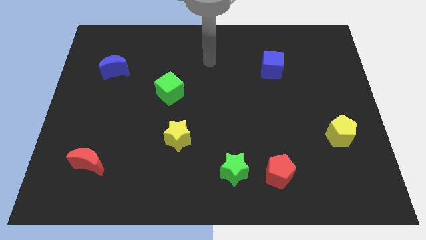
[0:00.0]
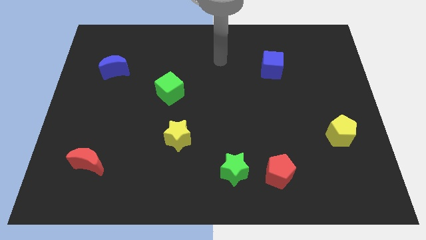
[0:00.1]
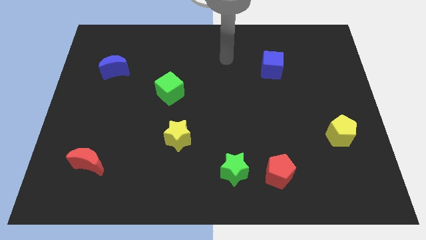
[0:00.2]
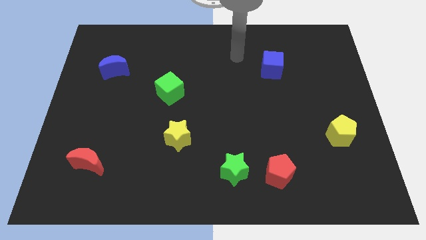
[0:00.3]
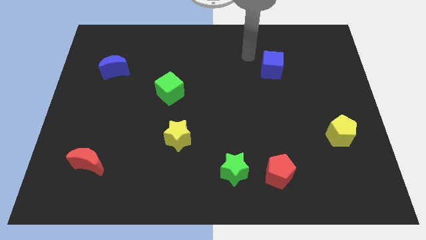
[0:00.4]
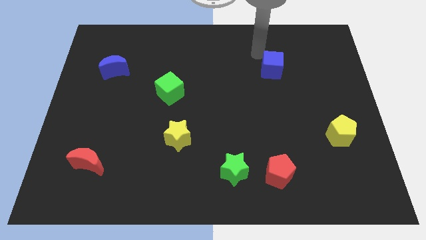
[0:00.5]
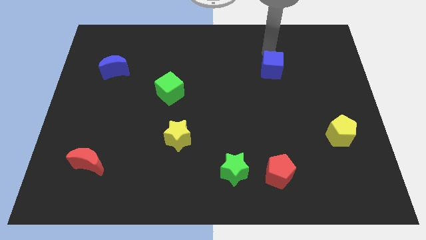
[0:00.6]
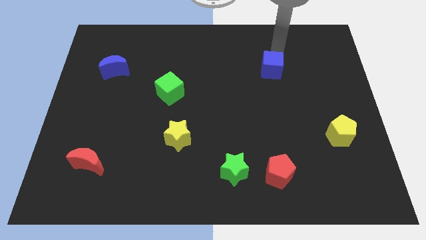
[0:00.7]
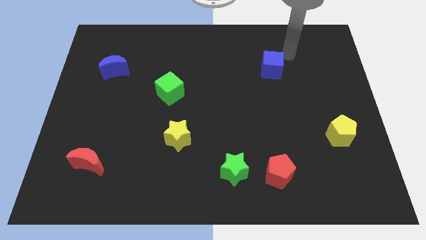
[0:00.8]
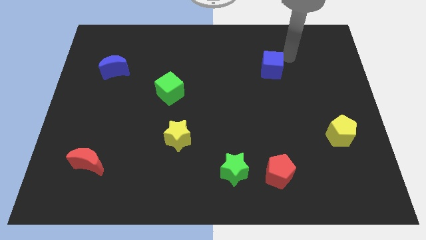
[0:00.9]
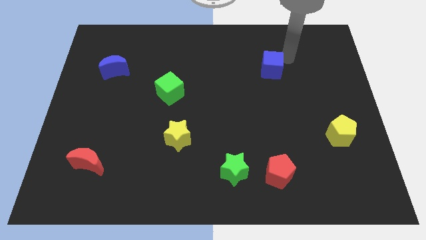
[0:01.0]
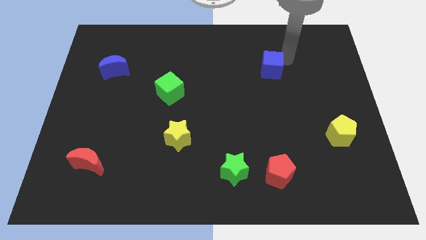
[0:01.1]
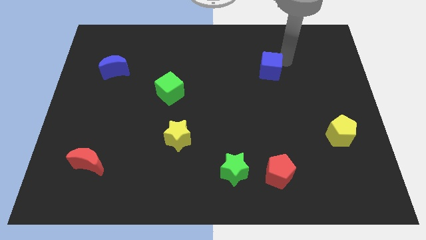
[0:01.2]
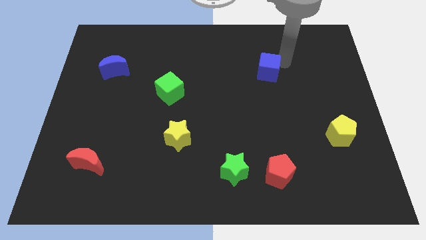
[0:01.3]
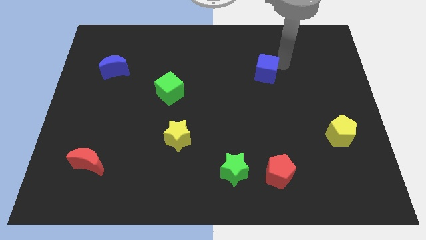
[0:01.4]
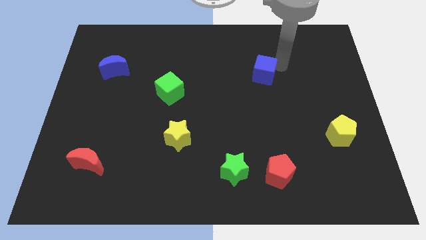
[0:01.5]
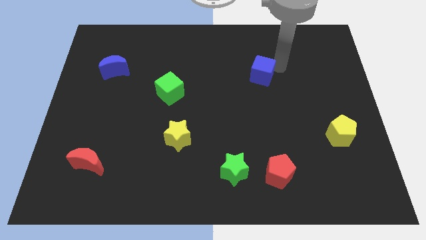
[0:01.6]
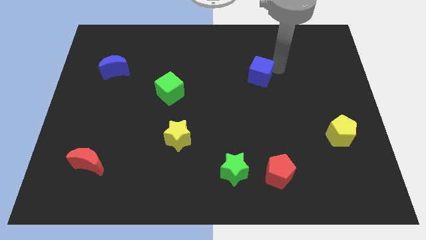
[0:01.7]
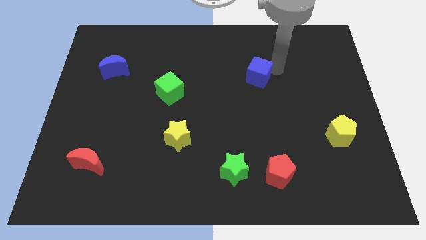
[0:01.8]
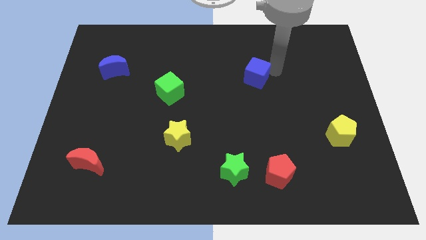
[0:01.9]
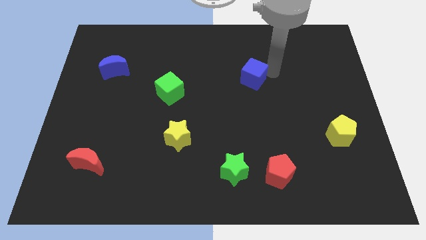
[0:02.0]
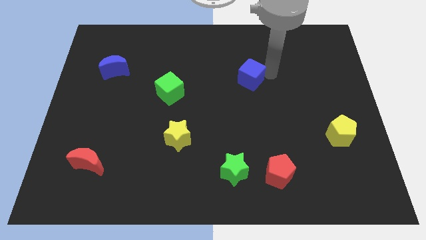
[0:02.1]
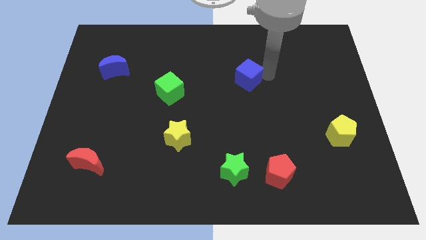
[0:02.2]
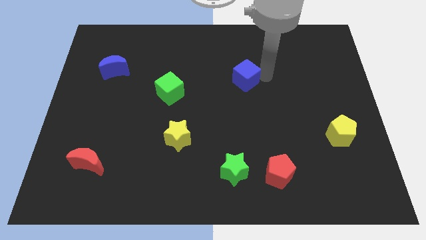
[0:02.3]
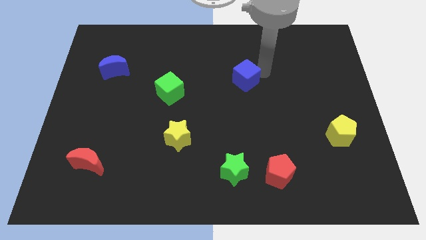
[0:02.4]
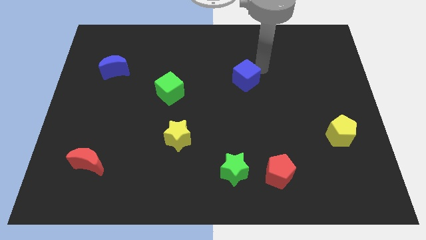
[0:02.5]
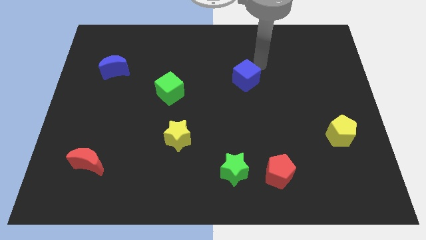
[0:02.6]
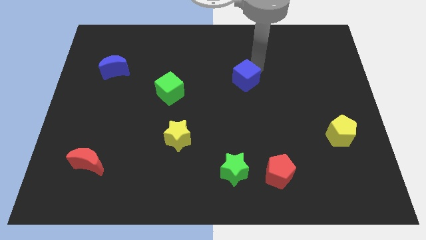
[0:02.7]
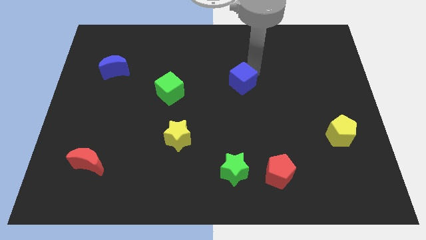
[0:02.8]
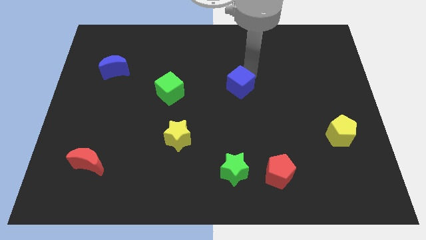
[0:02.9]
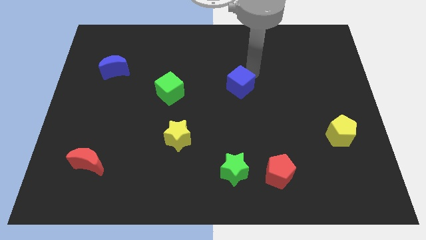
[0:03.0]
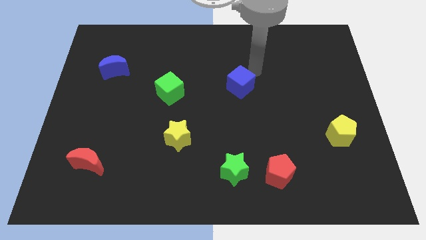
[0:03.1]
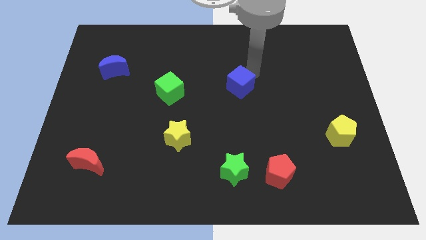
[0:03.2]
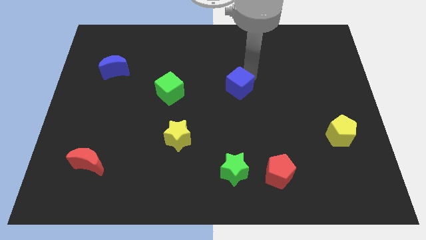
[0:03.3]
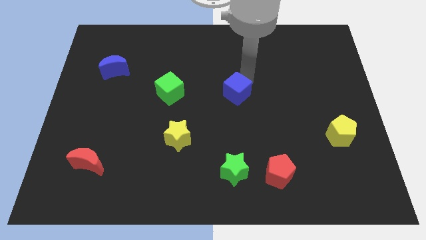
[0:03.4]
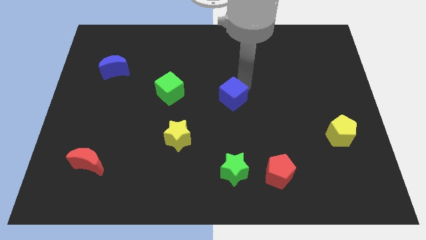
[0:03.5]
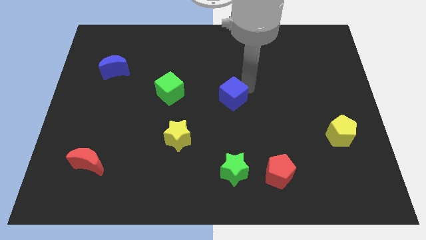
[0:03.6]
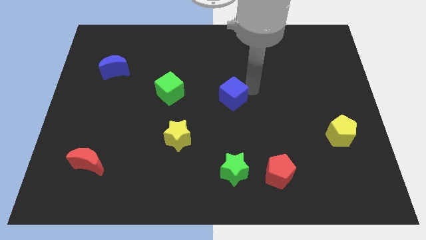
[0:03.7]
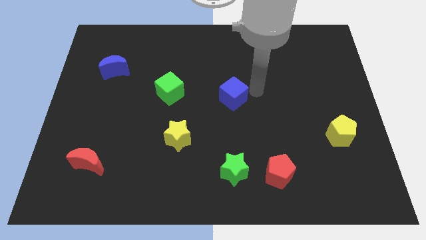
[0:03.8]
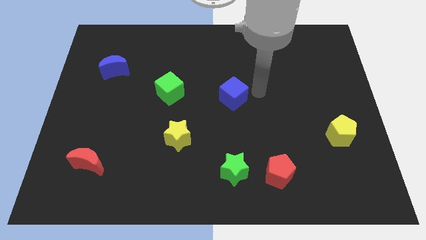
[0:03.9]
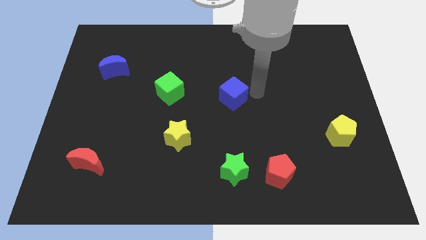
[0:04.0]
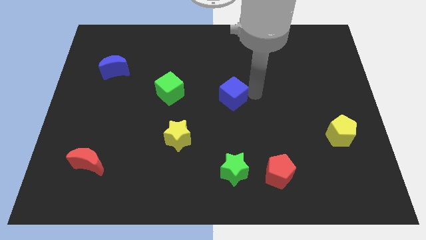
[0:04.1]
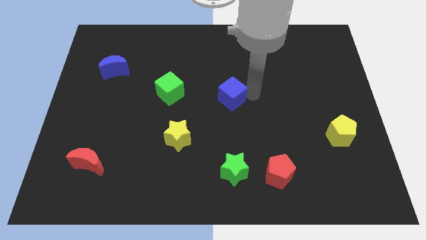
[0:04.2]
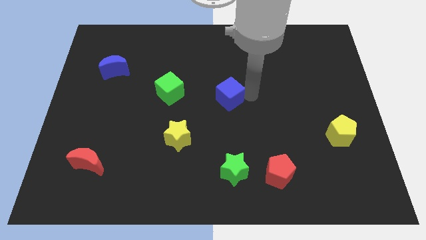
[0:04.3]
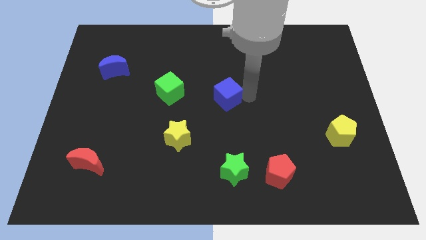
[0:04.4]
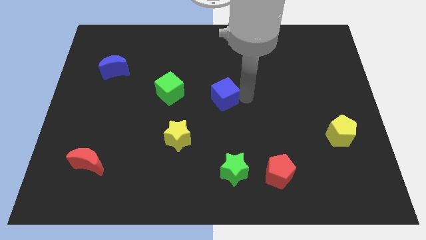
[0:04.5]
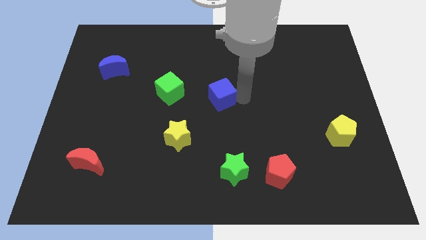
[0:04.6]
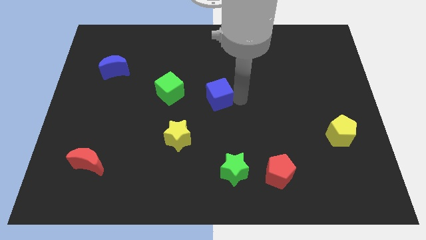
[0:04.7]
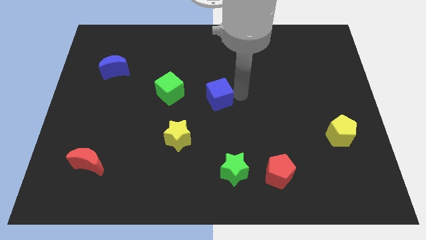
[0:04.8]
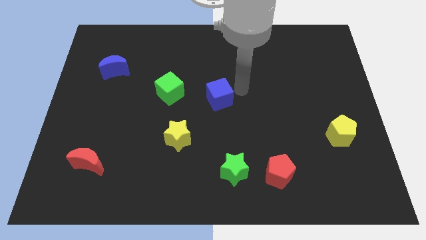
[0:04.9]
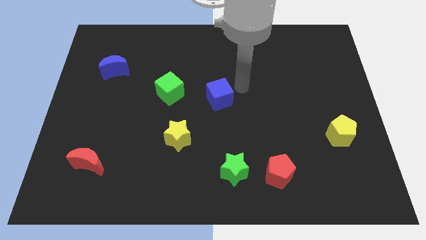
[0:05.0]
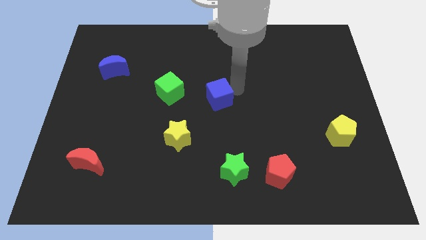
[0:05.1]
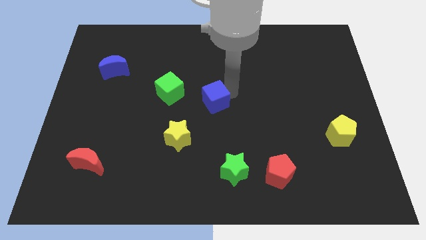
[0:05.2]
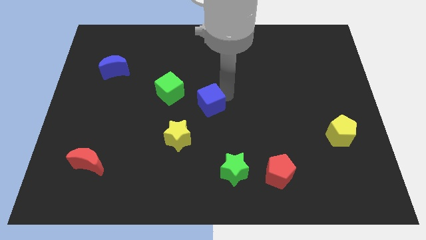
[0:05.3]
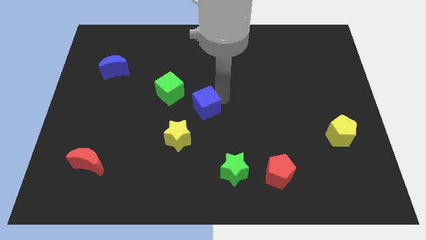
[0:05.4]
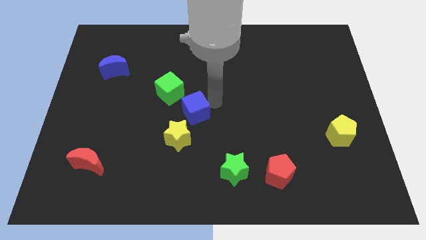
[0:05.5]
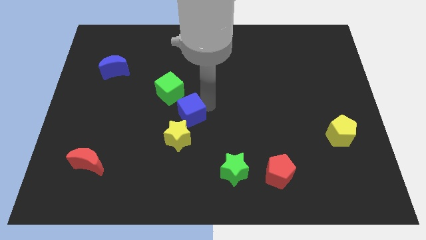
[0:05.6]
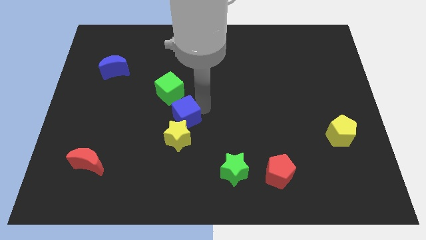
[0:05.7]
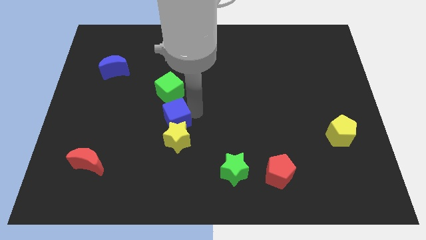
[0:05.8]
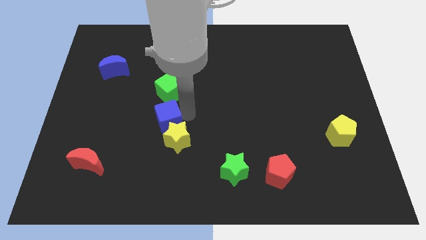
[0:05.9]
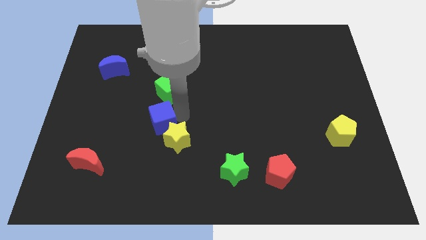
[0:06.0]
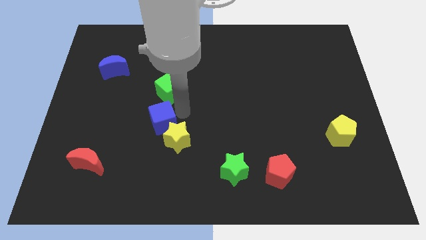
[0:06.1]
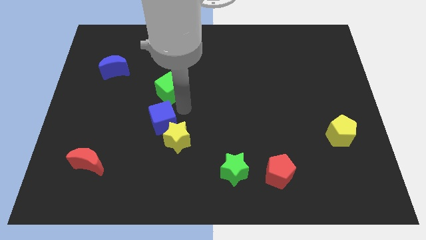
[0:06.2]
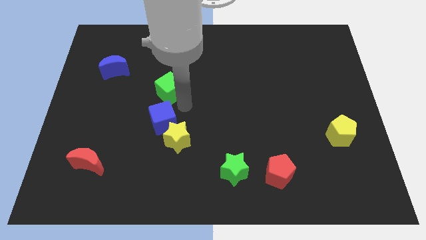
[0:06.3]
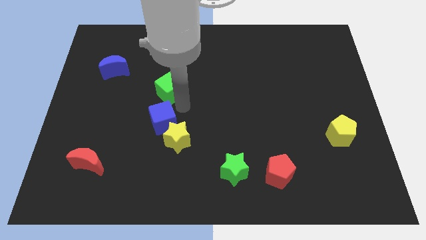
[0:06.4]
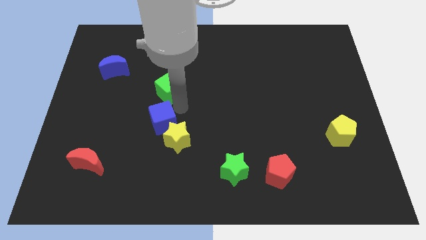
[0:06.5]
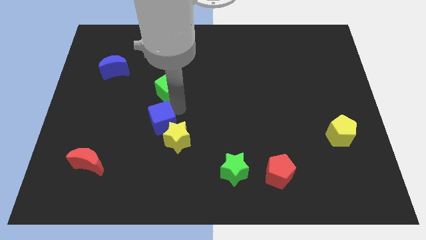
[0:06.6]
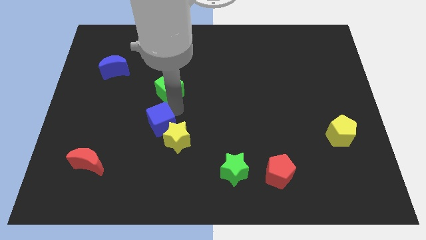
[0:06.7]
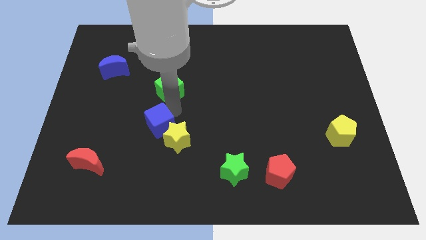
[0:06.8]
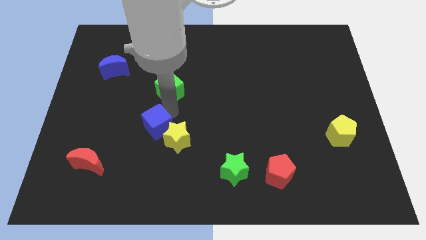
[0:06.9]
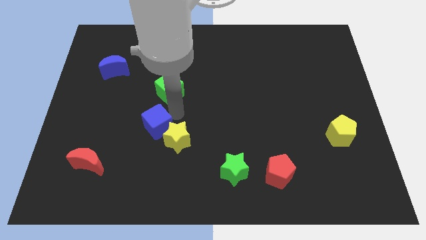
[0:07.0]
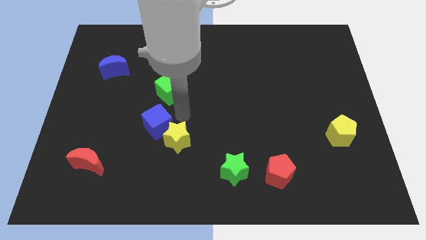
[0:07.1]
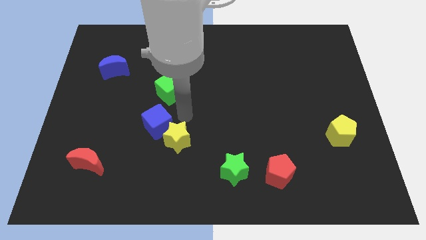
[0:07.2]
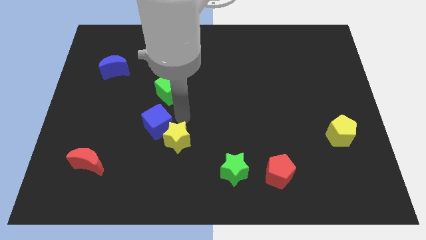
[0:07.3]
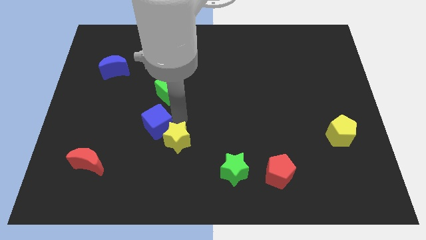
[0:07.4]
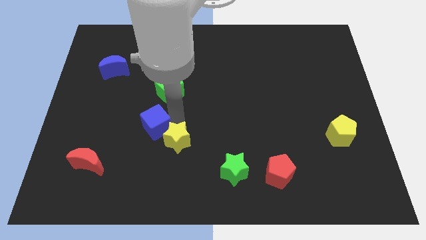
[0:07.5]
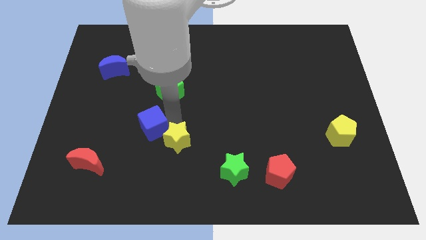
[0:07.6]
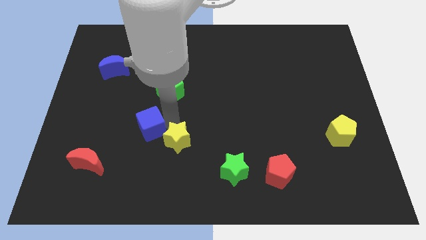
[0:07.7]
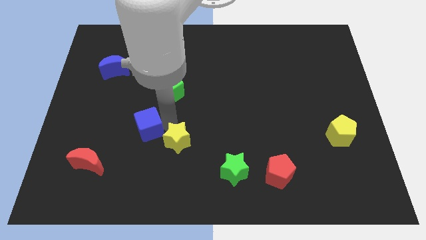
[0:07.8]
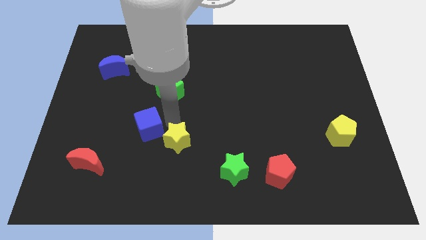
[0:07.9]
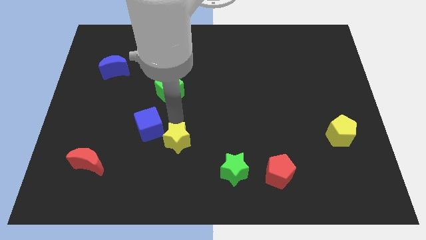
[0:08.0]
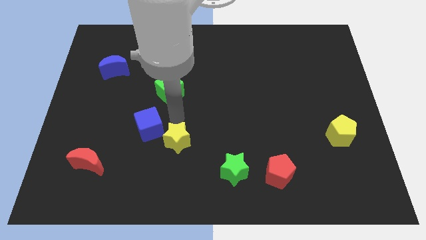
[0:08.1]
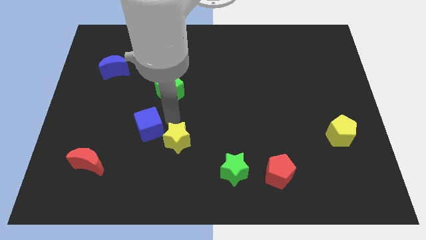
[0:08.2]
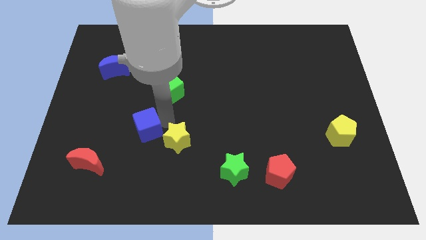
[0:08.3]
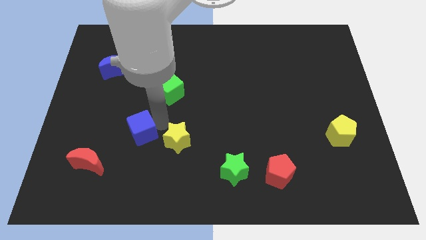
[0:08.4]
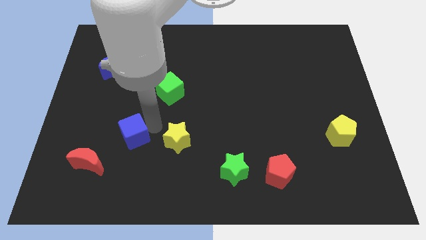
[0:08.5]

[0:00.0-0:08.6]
slide the blue cube to the top right side of the red moon
